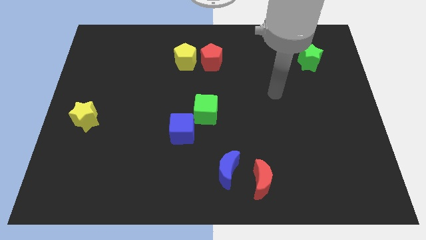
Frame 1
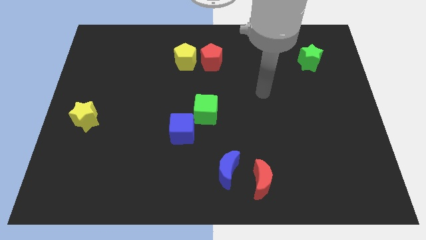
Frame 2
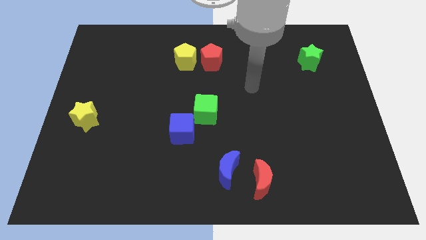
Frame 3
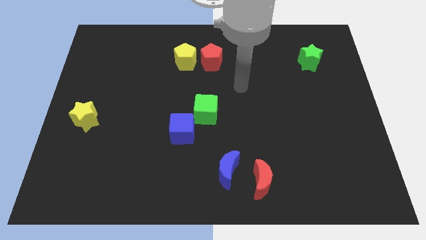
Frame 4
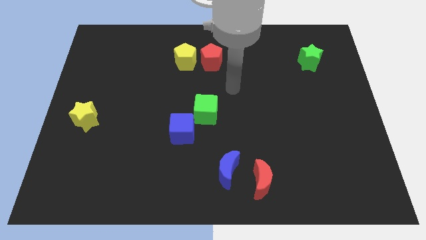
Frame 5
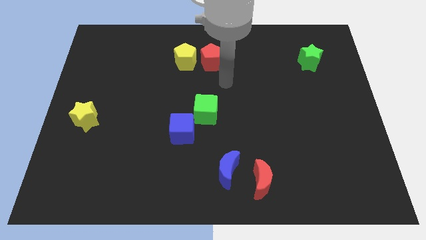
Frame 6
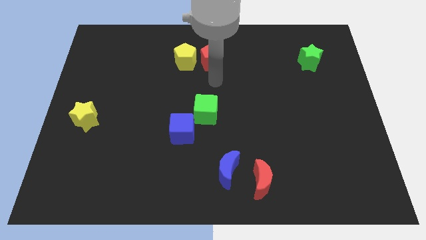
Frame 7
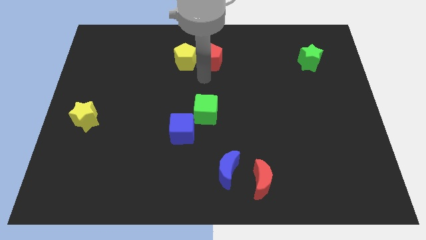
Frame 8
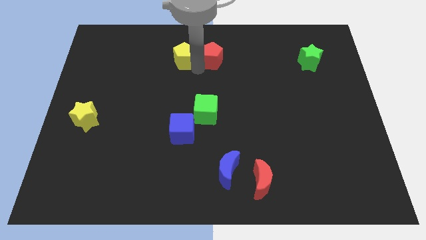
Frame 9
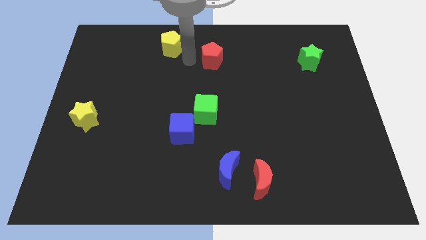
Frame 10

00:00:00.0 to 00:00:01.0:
separate the red pentagon from the yellow pentagon

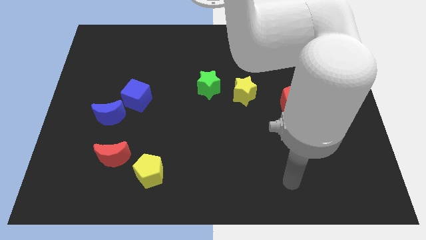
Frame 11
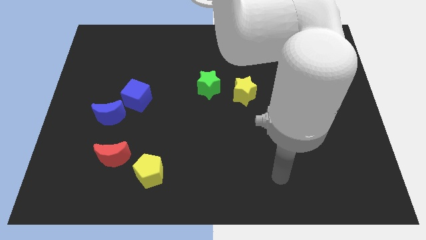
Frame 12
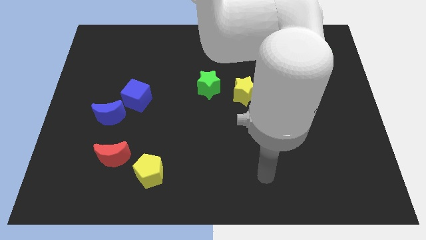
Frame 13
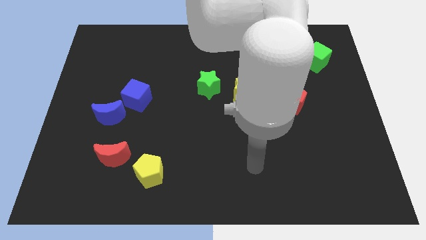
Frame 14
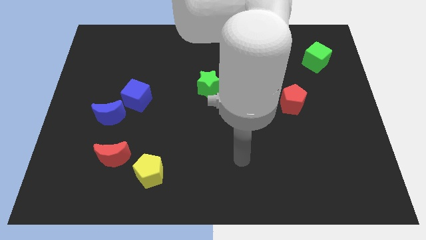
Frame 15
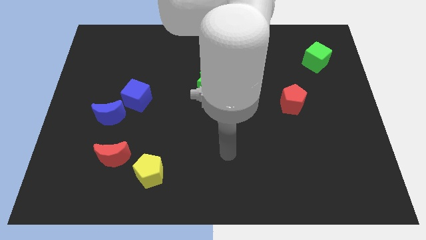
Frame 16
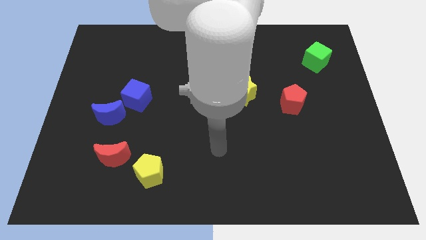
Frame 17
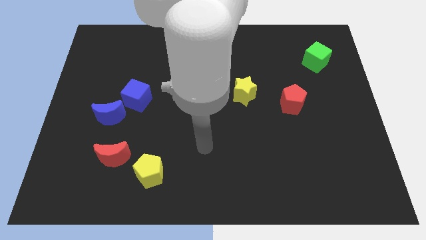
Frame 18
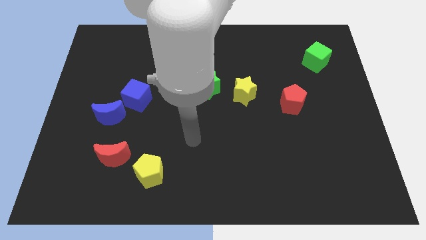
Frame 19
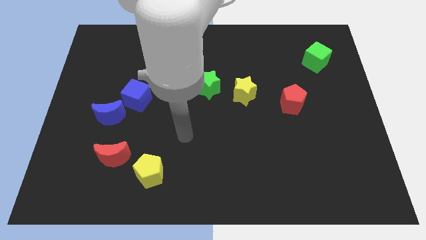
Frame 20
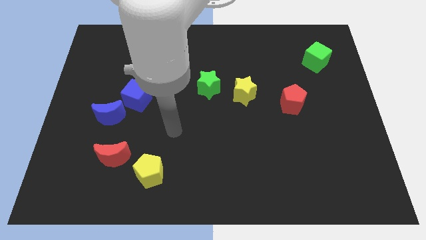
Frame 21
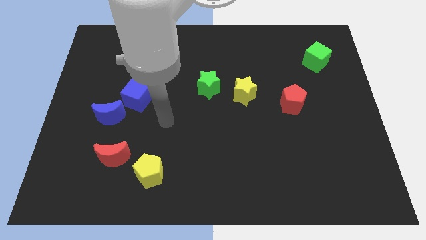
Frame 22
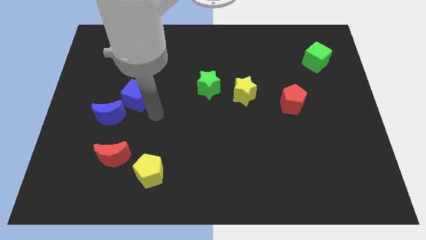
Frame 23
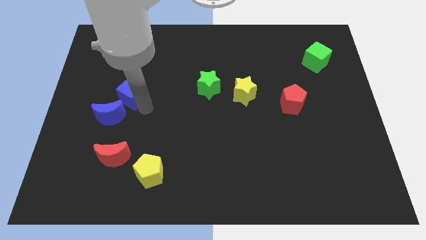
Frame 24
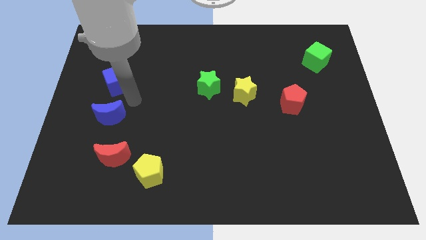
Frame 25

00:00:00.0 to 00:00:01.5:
separate the blue moon from the blue cube

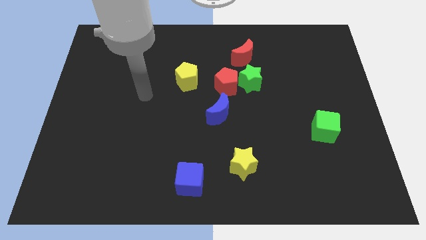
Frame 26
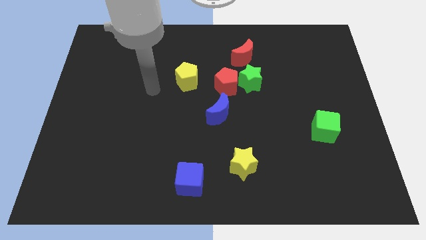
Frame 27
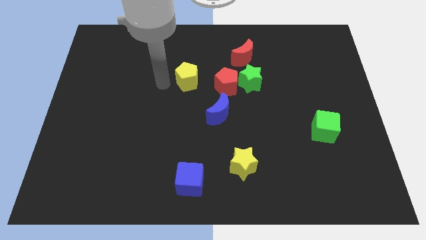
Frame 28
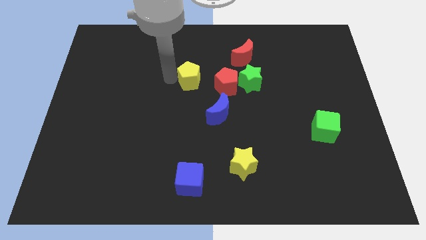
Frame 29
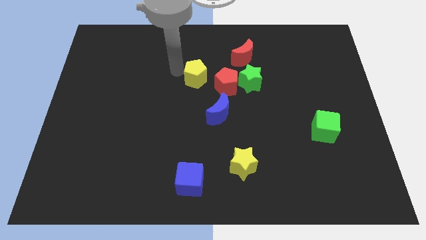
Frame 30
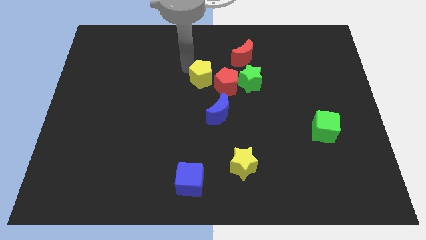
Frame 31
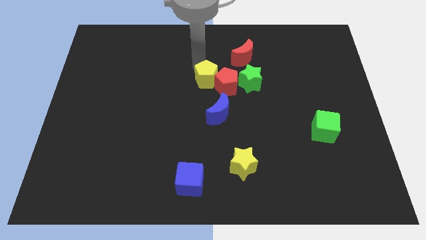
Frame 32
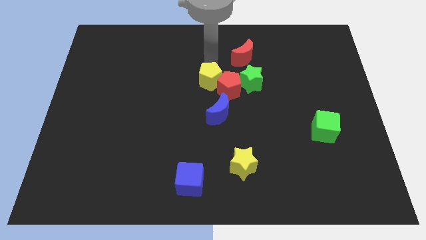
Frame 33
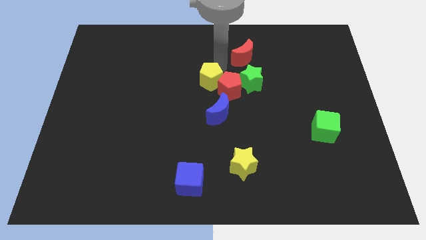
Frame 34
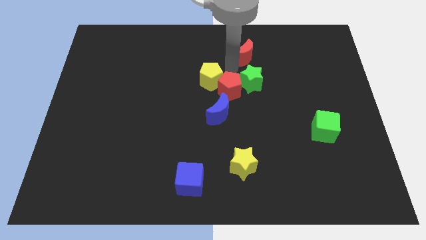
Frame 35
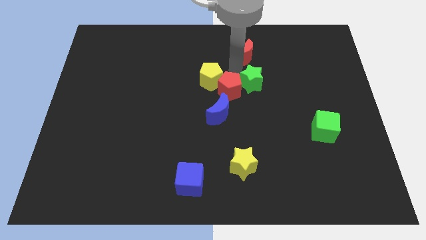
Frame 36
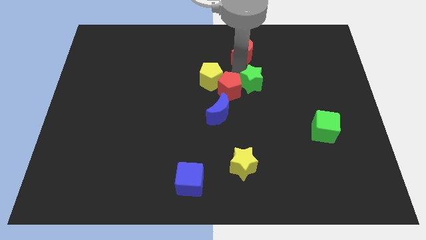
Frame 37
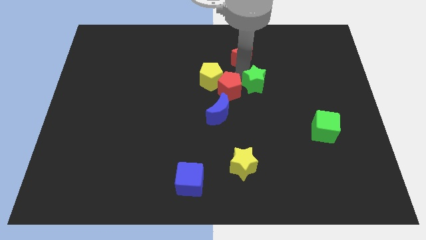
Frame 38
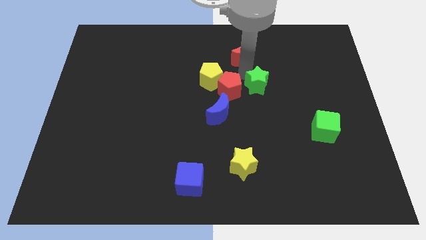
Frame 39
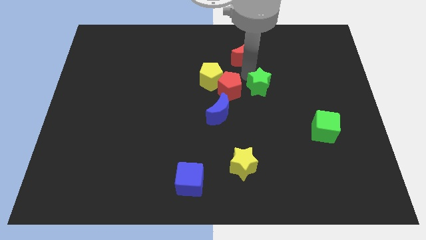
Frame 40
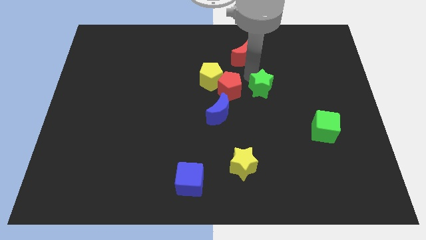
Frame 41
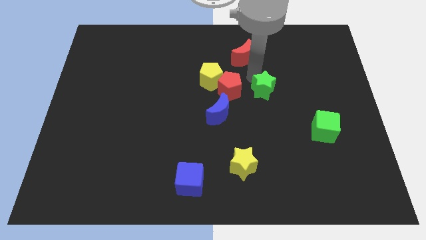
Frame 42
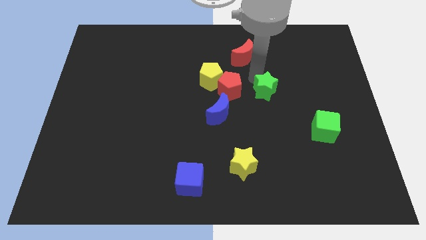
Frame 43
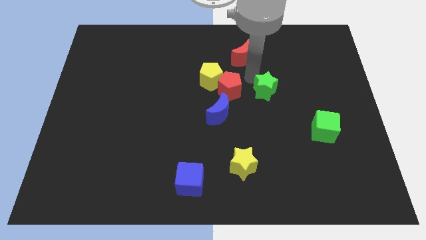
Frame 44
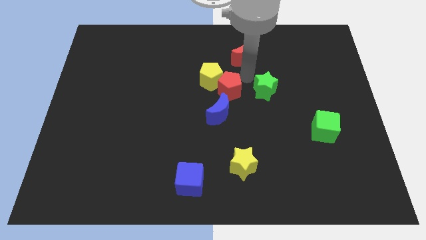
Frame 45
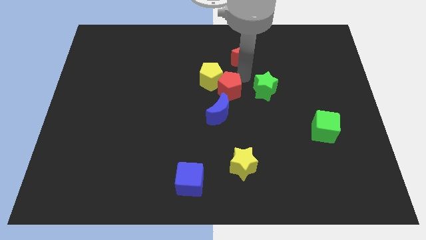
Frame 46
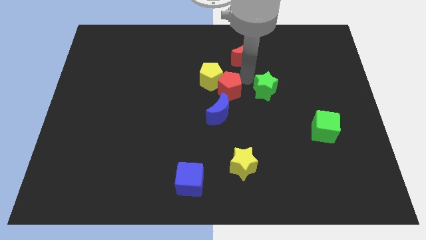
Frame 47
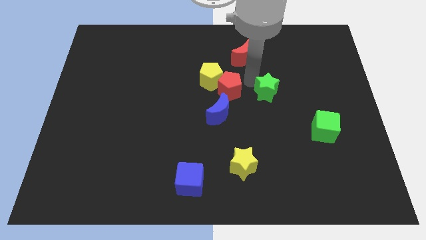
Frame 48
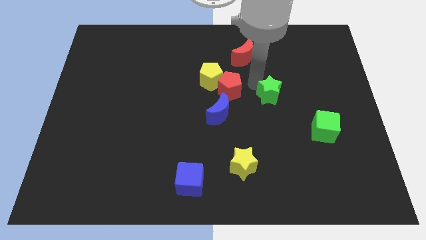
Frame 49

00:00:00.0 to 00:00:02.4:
separate the green star from the red pentagon and red moon

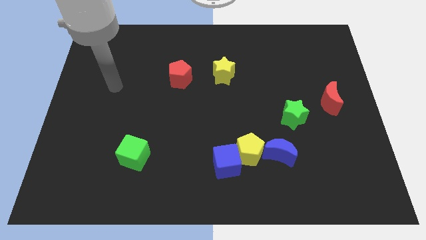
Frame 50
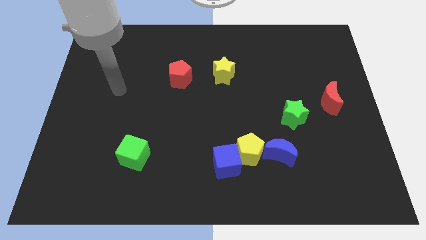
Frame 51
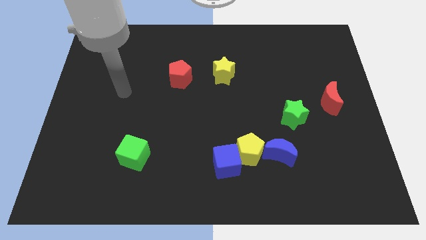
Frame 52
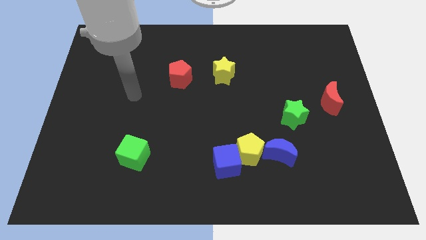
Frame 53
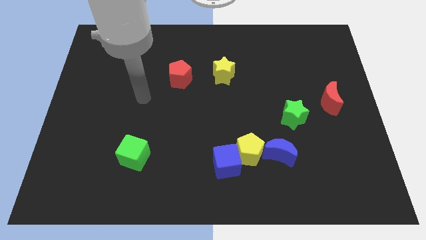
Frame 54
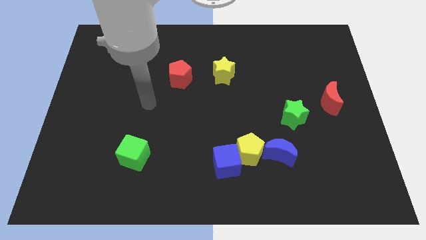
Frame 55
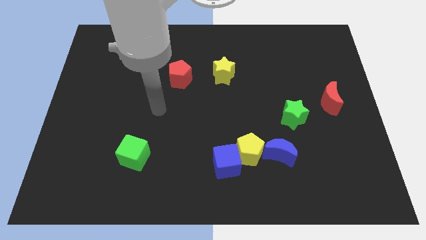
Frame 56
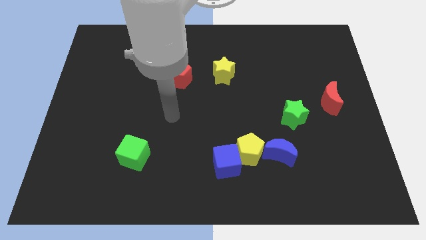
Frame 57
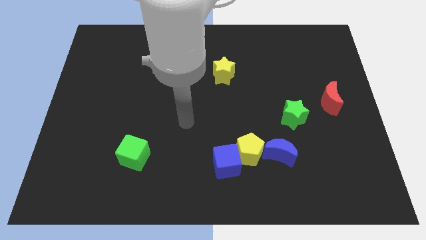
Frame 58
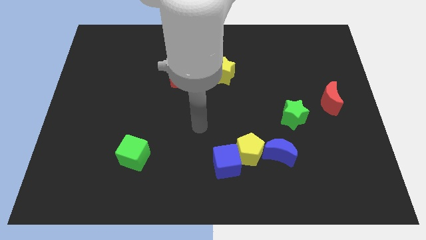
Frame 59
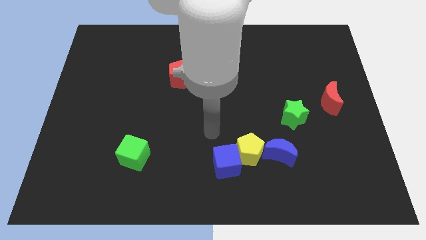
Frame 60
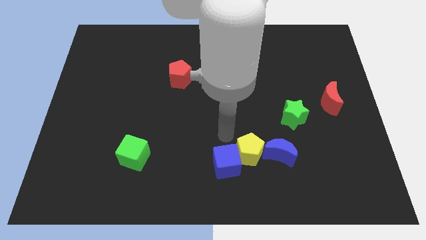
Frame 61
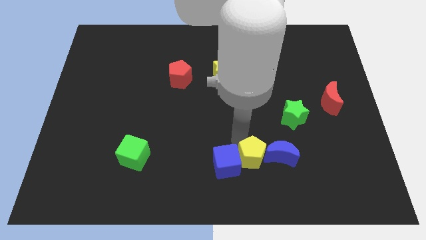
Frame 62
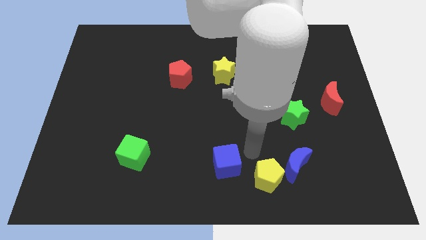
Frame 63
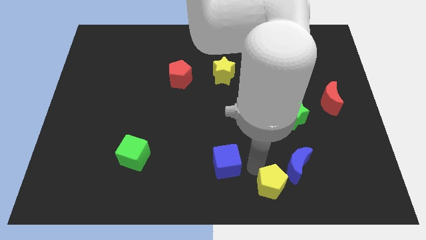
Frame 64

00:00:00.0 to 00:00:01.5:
pull the blue cube apart from the yellow pentagon

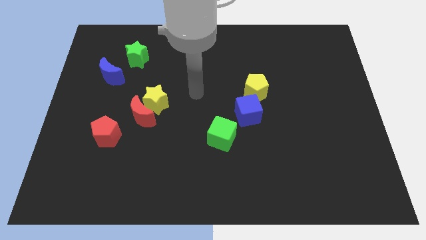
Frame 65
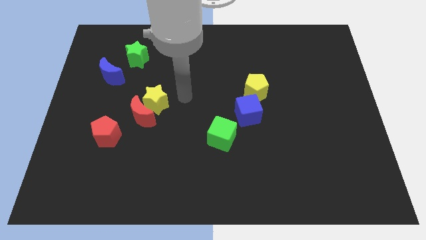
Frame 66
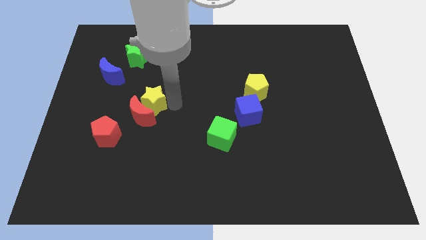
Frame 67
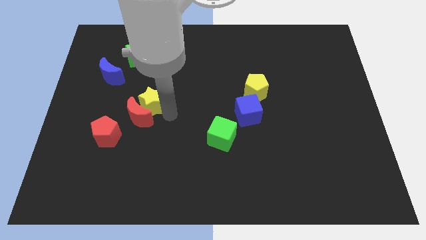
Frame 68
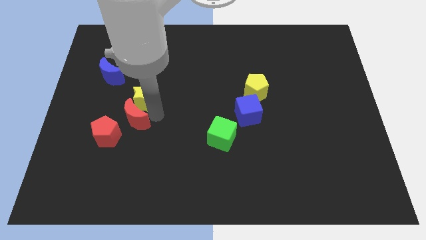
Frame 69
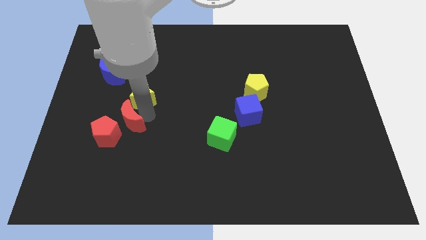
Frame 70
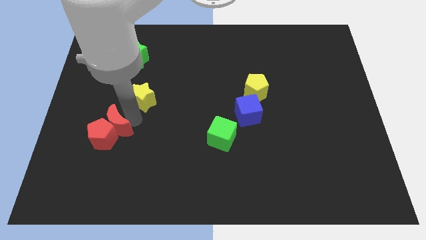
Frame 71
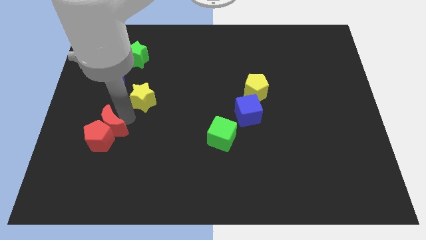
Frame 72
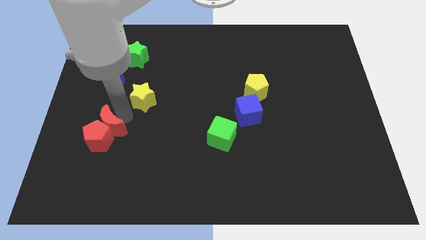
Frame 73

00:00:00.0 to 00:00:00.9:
move the yellow star away from the red moon

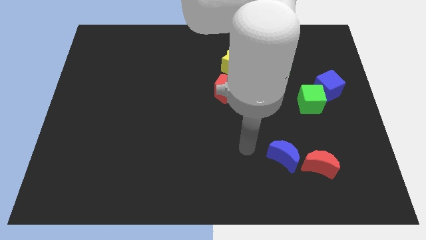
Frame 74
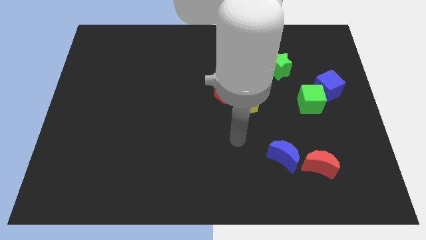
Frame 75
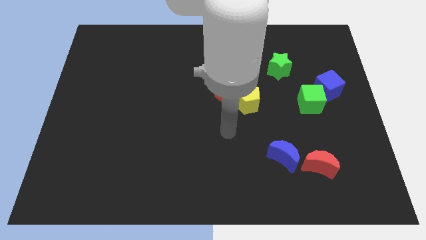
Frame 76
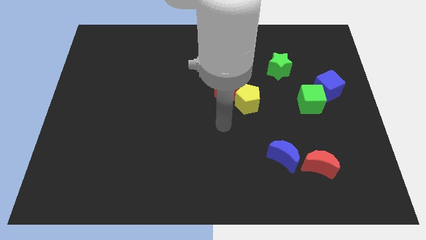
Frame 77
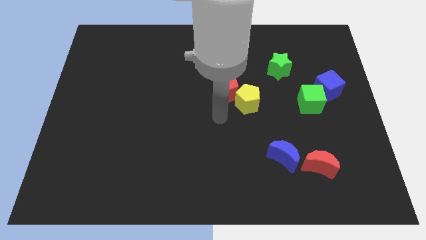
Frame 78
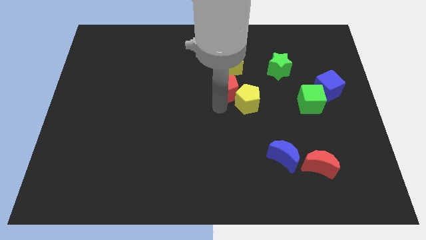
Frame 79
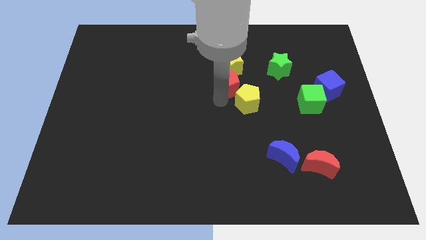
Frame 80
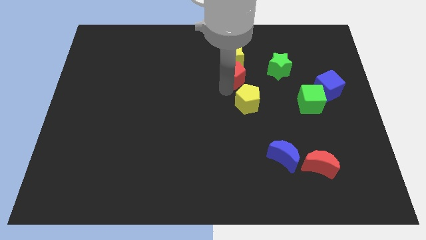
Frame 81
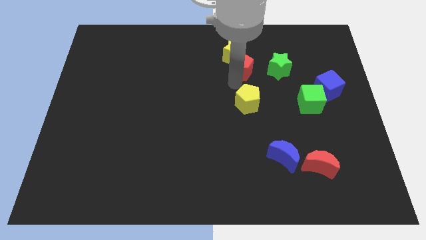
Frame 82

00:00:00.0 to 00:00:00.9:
pull the yellow pentagon apart from the red pentagon

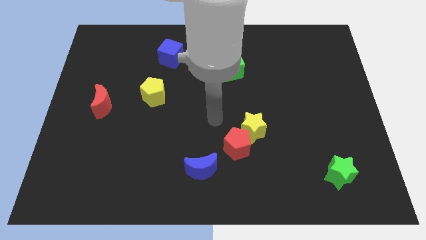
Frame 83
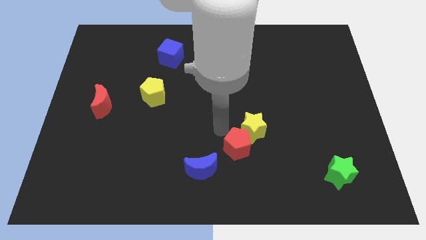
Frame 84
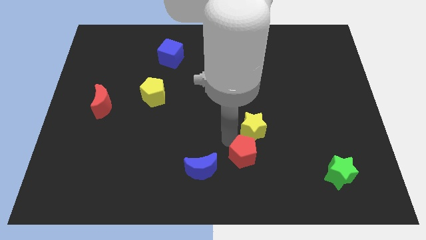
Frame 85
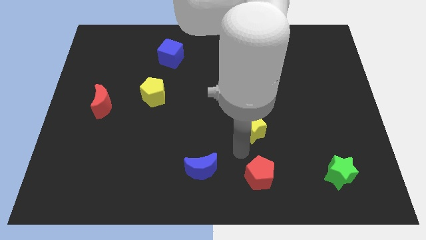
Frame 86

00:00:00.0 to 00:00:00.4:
separate the yellow star from the red pentagon

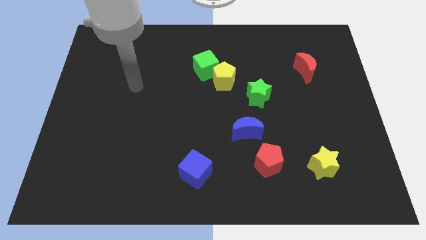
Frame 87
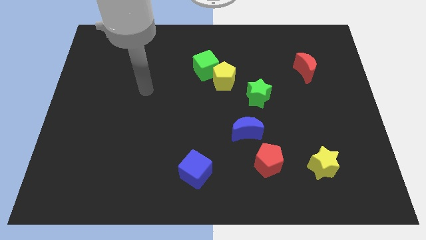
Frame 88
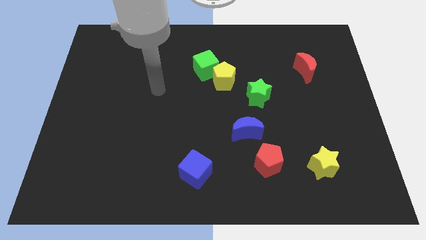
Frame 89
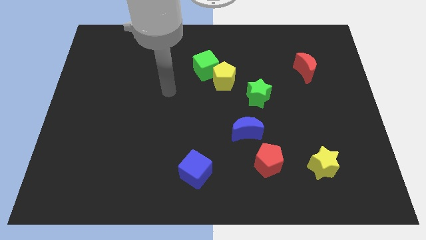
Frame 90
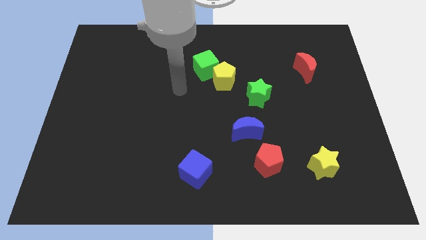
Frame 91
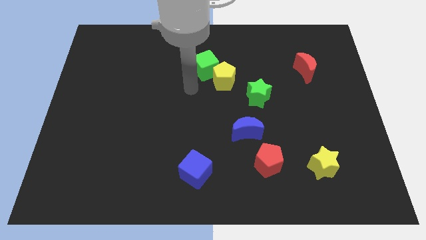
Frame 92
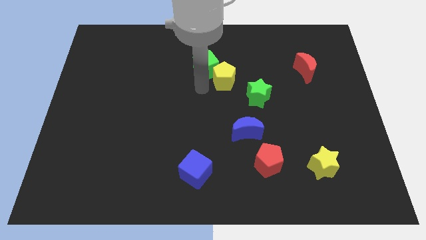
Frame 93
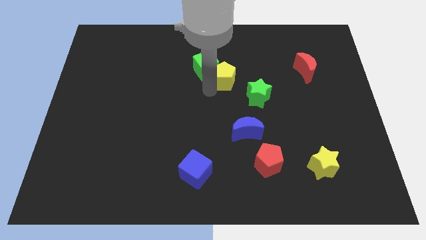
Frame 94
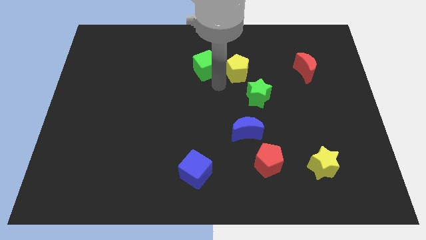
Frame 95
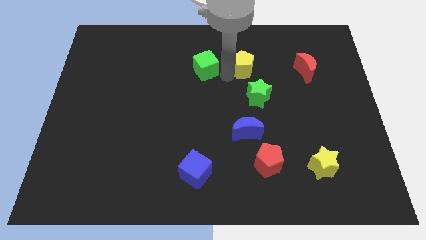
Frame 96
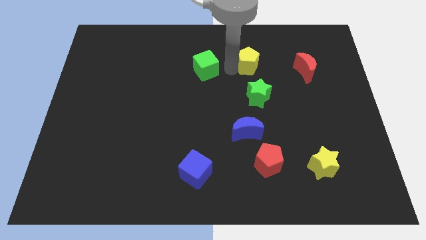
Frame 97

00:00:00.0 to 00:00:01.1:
separate the green cube from the yellow pentagon
